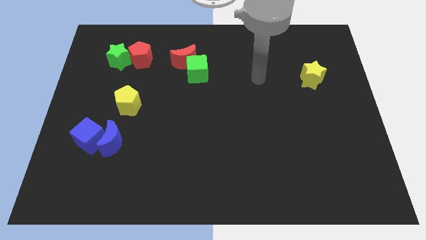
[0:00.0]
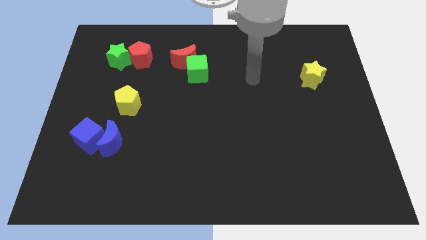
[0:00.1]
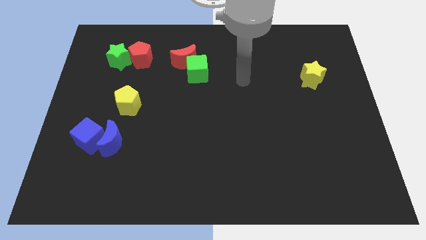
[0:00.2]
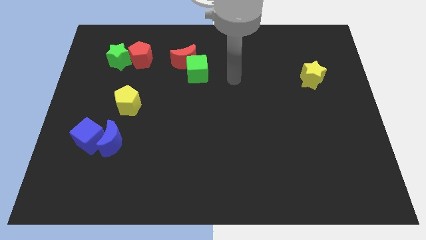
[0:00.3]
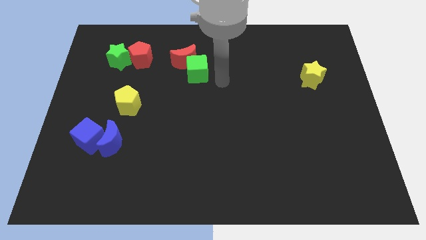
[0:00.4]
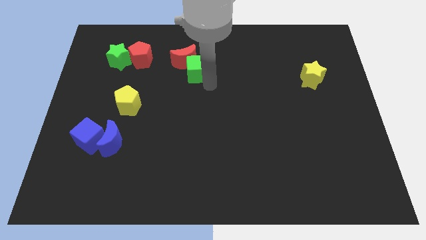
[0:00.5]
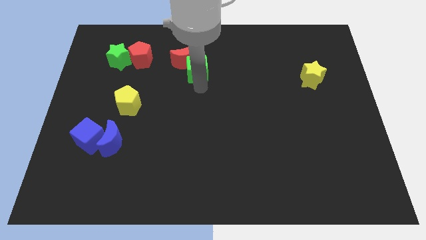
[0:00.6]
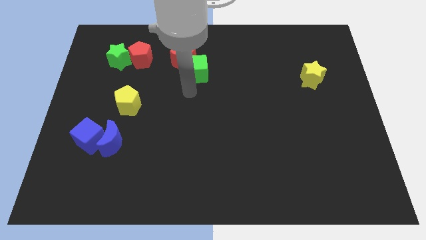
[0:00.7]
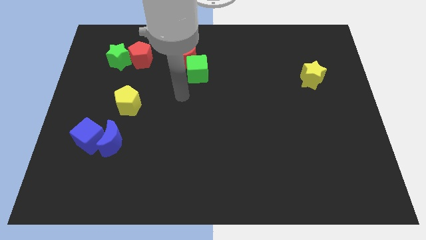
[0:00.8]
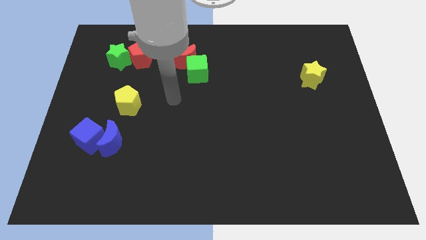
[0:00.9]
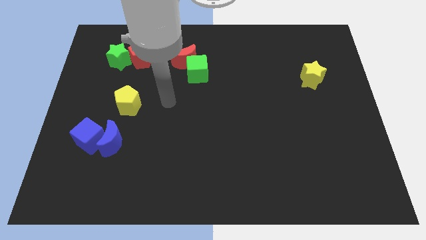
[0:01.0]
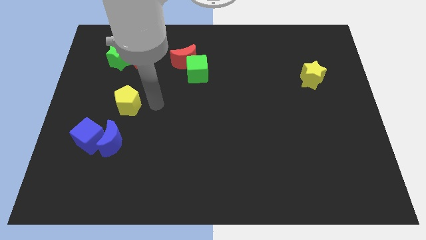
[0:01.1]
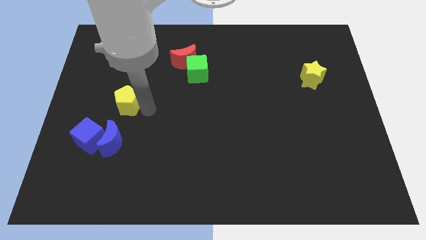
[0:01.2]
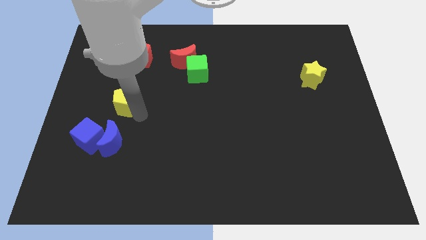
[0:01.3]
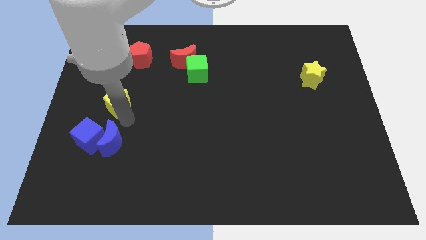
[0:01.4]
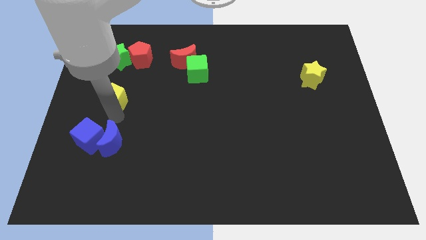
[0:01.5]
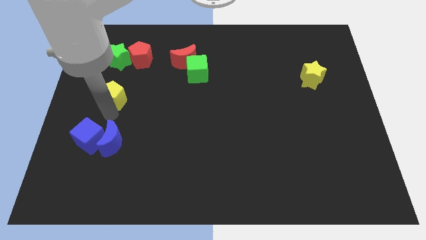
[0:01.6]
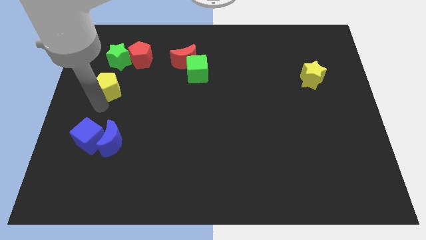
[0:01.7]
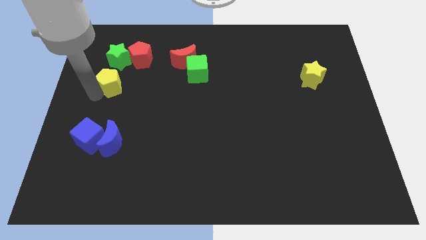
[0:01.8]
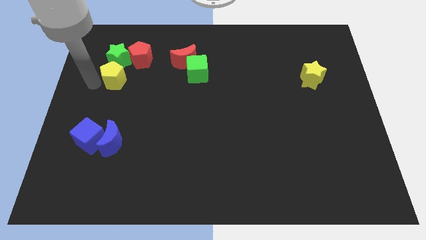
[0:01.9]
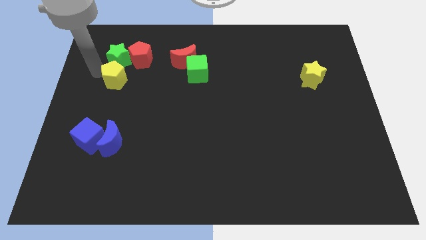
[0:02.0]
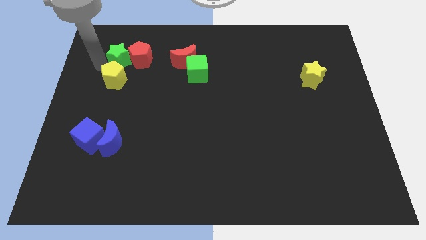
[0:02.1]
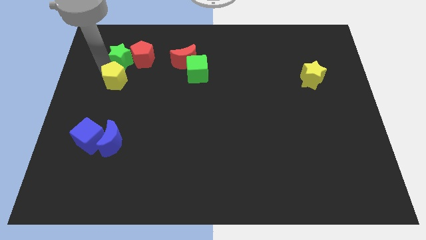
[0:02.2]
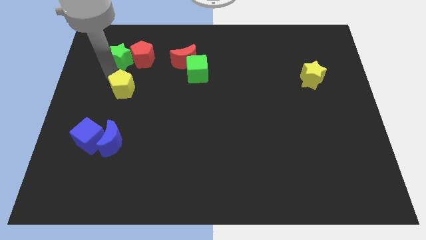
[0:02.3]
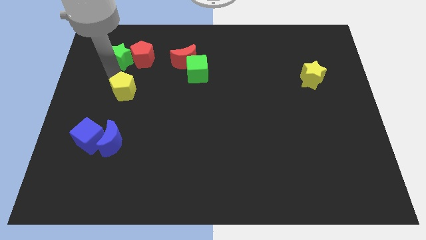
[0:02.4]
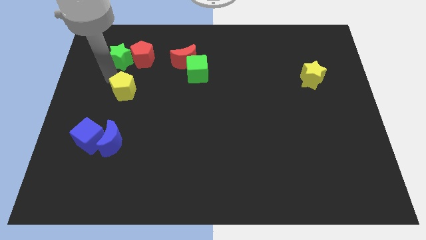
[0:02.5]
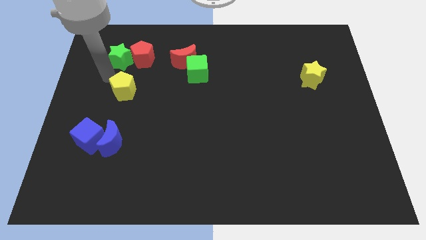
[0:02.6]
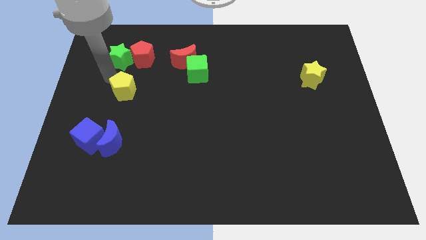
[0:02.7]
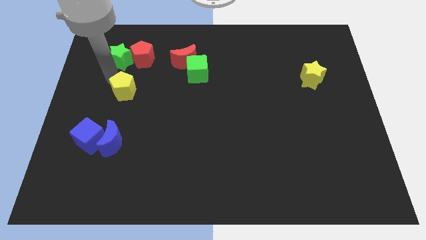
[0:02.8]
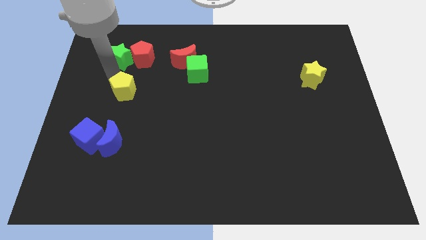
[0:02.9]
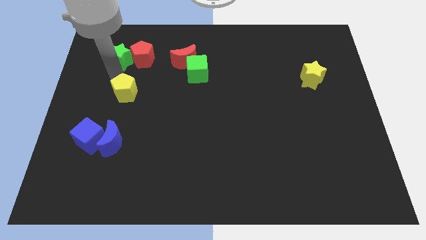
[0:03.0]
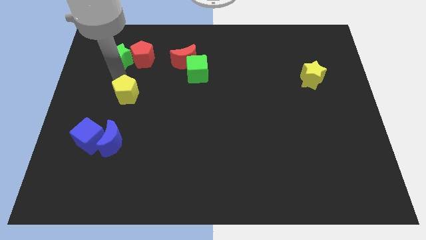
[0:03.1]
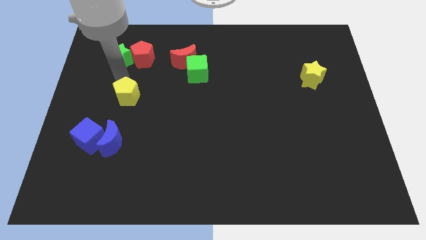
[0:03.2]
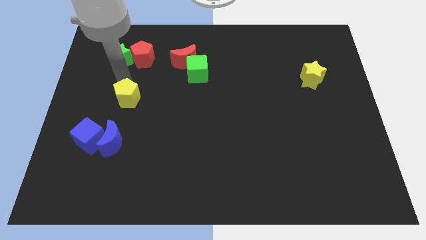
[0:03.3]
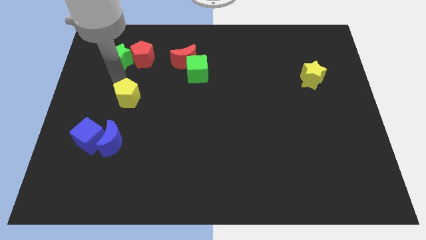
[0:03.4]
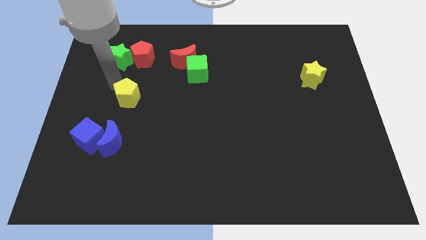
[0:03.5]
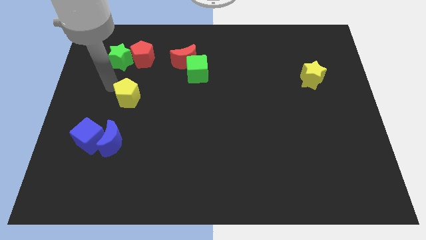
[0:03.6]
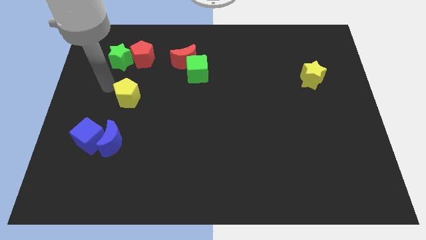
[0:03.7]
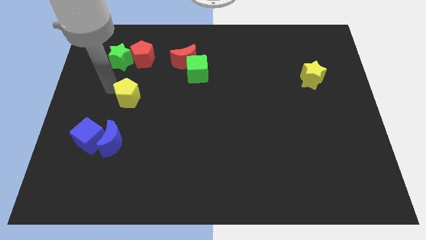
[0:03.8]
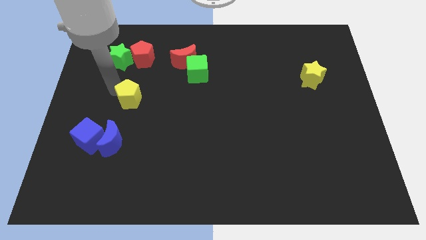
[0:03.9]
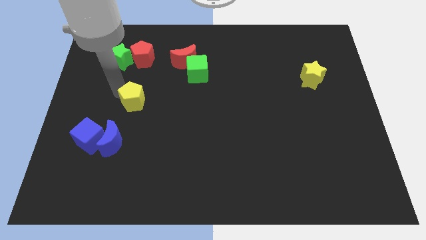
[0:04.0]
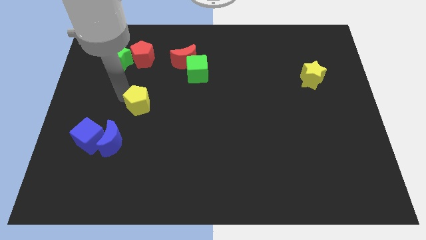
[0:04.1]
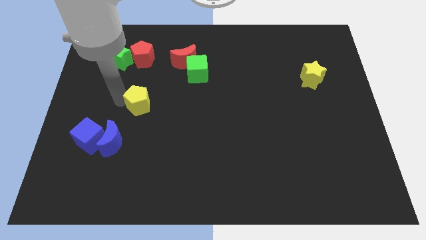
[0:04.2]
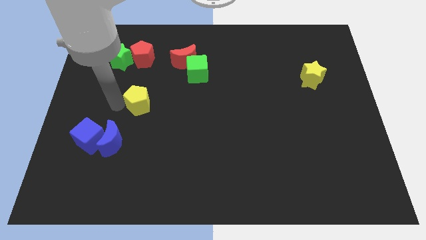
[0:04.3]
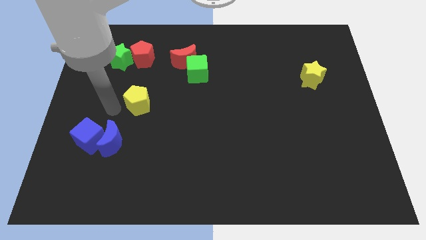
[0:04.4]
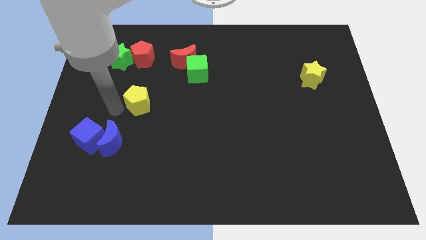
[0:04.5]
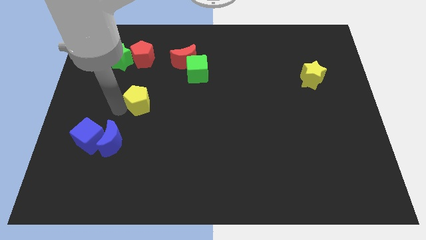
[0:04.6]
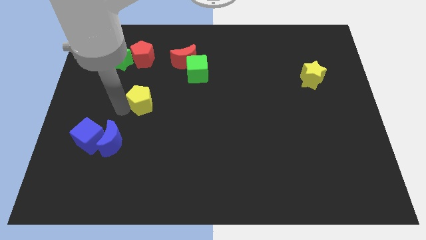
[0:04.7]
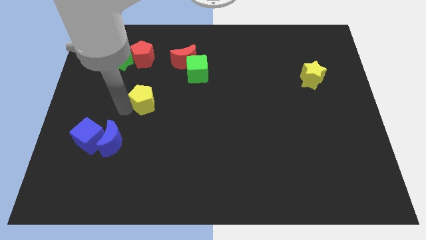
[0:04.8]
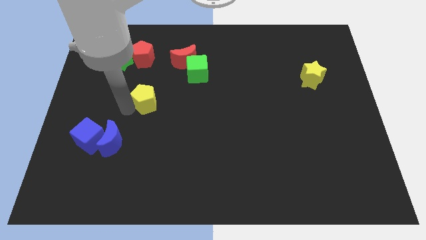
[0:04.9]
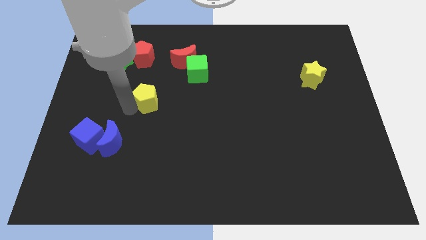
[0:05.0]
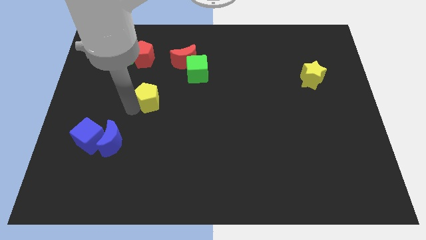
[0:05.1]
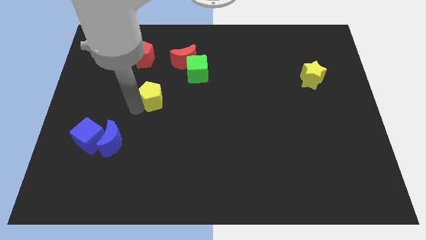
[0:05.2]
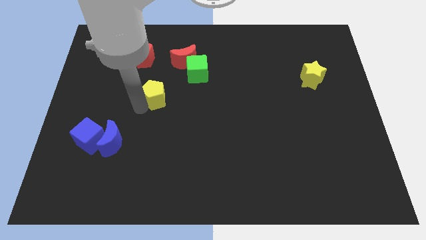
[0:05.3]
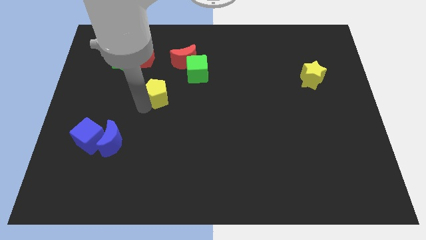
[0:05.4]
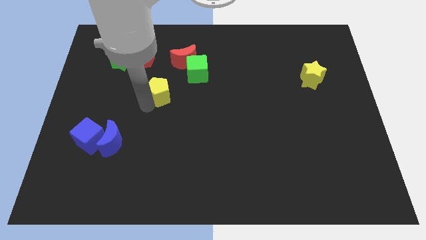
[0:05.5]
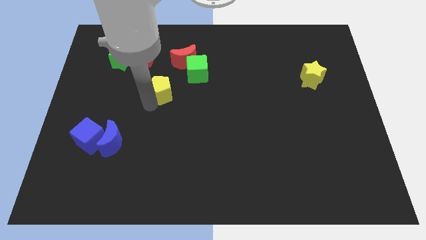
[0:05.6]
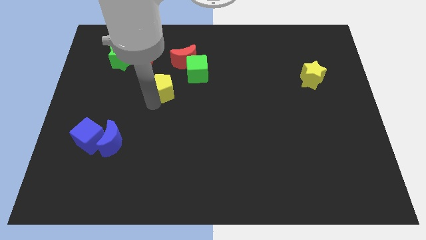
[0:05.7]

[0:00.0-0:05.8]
put the yellow pentagon below the red moon
